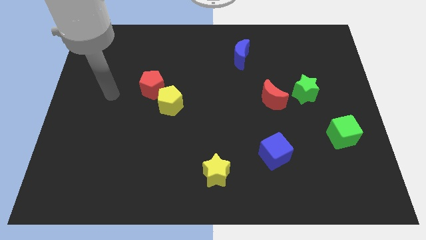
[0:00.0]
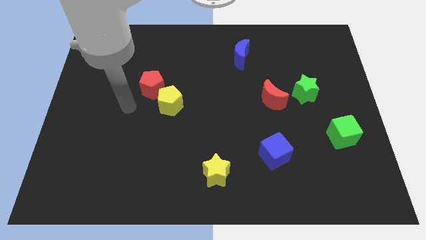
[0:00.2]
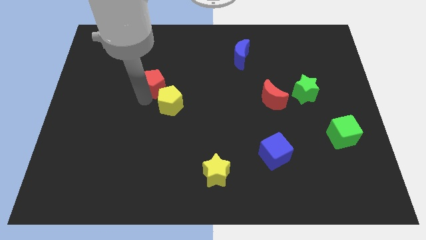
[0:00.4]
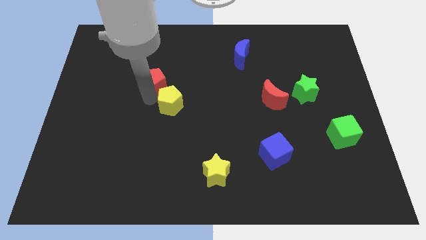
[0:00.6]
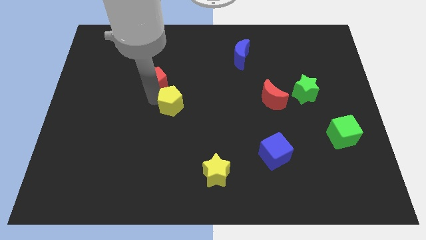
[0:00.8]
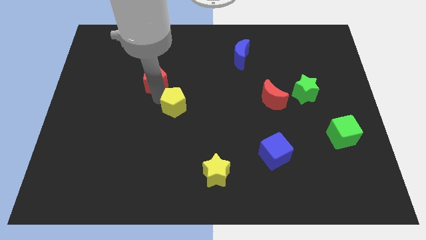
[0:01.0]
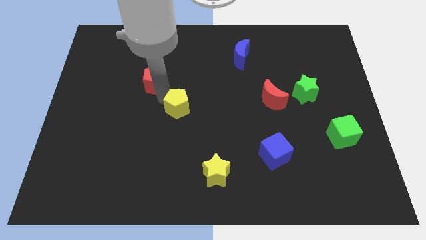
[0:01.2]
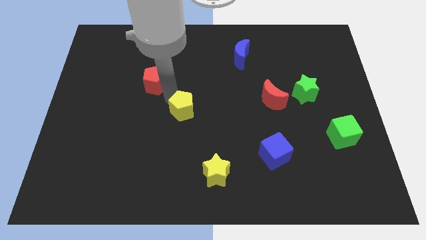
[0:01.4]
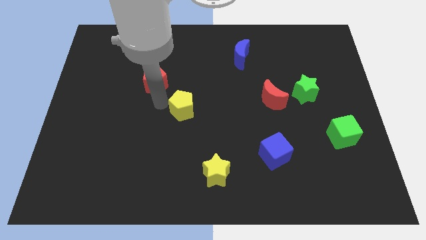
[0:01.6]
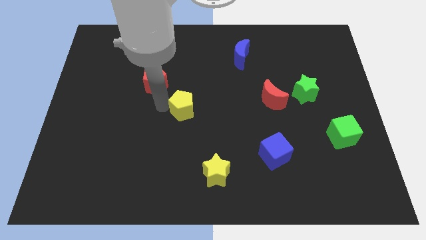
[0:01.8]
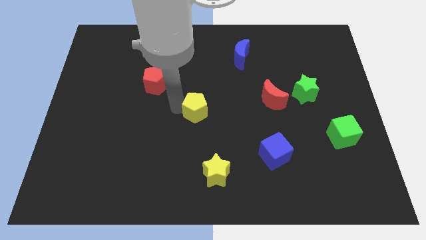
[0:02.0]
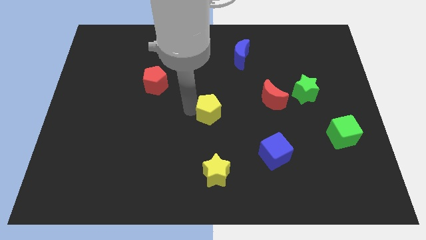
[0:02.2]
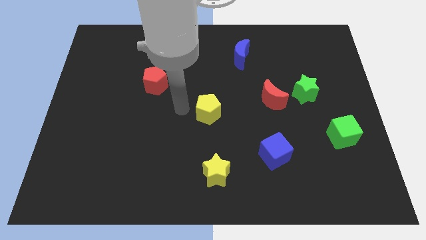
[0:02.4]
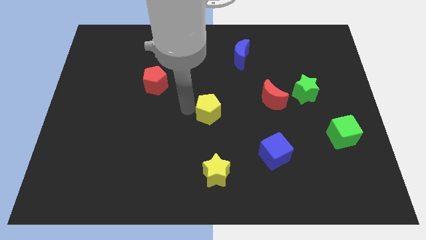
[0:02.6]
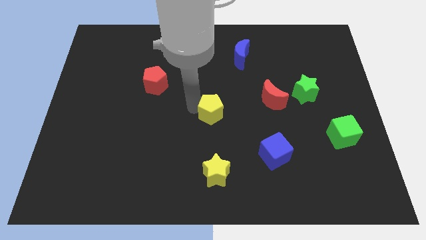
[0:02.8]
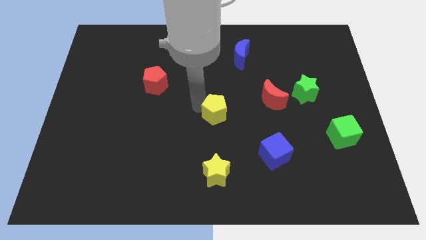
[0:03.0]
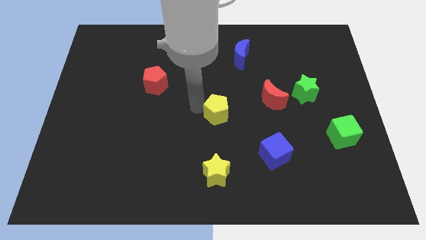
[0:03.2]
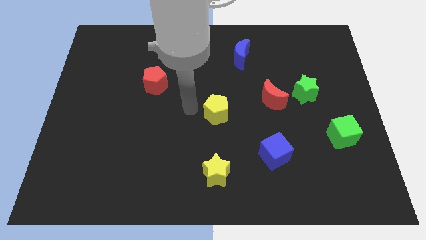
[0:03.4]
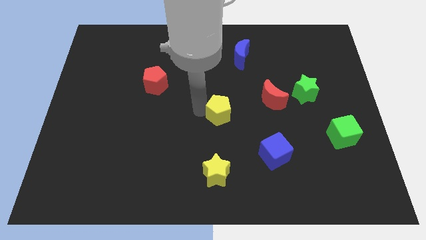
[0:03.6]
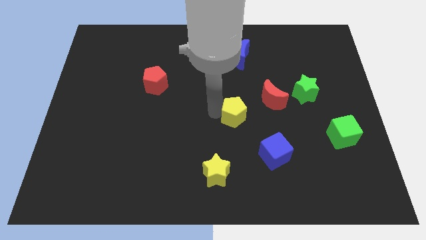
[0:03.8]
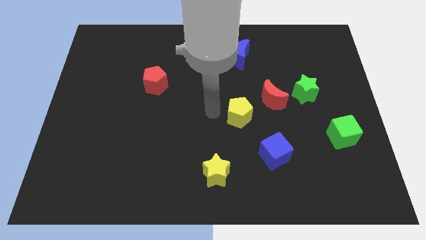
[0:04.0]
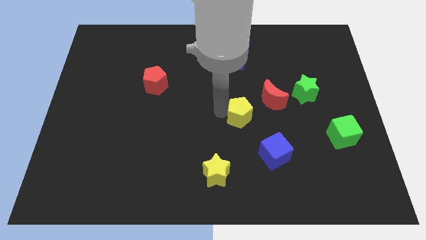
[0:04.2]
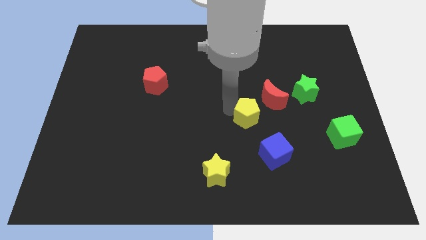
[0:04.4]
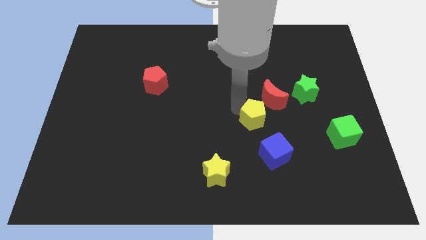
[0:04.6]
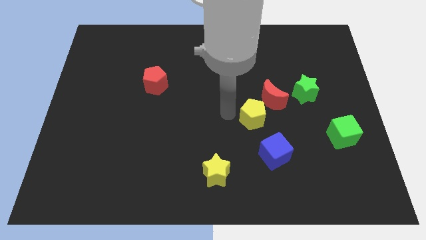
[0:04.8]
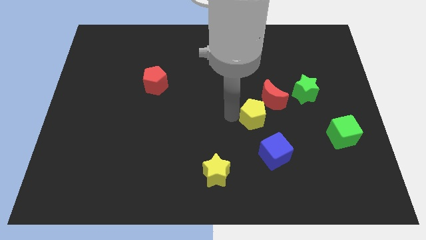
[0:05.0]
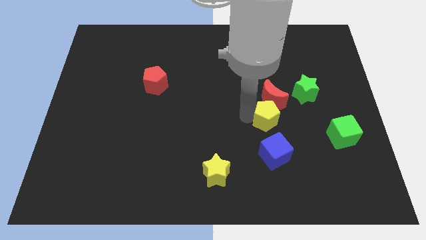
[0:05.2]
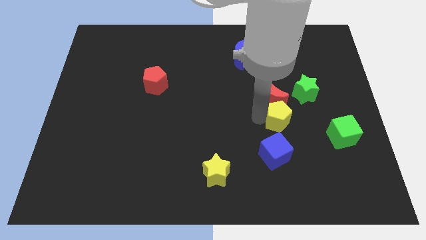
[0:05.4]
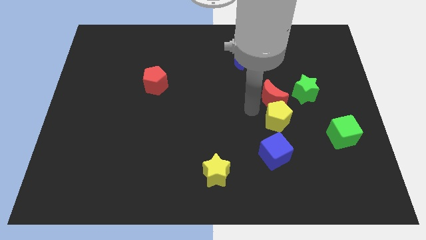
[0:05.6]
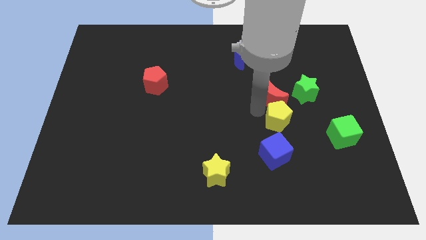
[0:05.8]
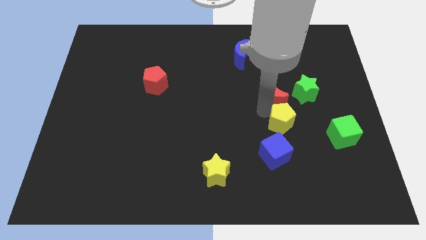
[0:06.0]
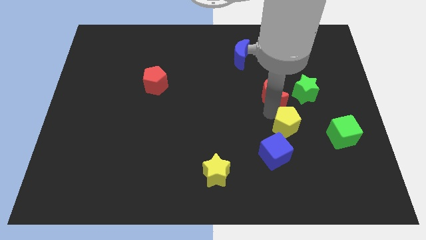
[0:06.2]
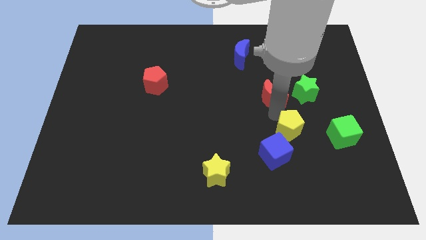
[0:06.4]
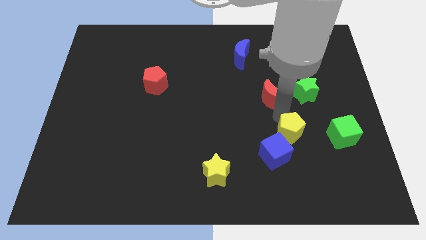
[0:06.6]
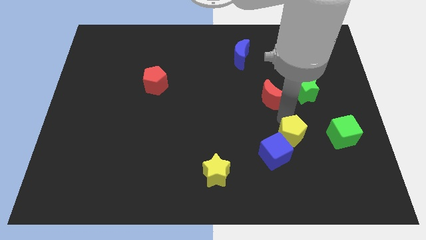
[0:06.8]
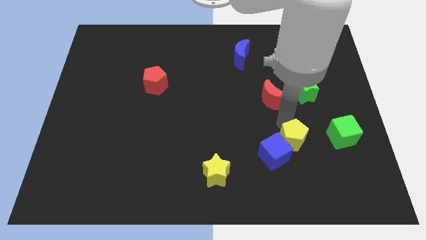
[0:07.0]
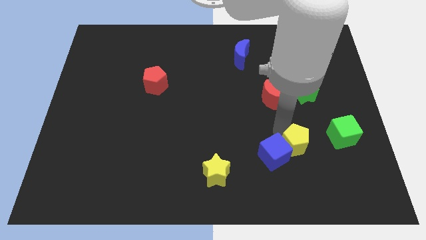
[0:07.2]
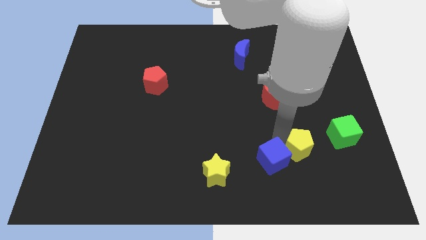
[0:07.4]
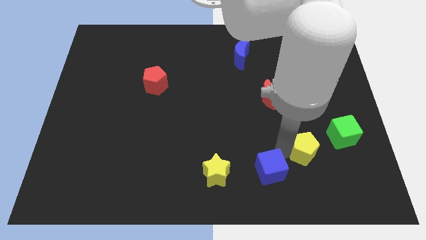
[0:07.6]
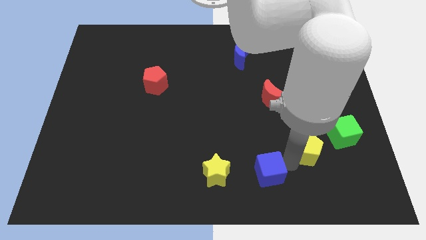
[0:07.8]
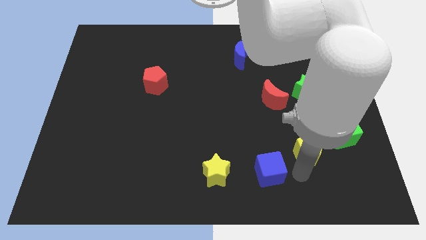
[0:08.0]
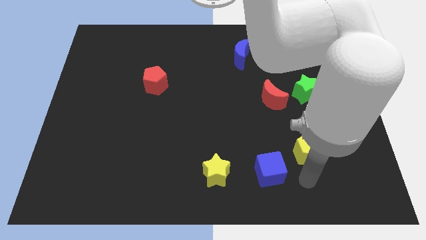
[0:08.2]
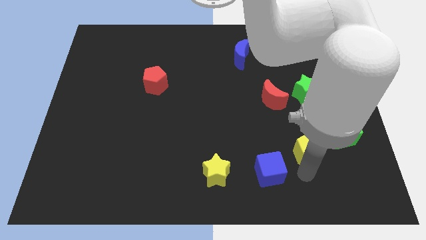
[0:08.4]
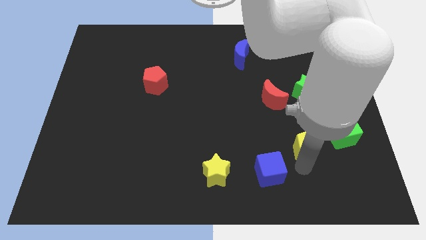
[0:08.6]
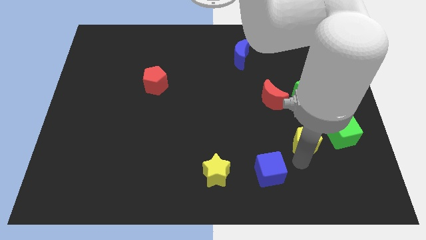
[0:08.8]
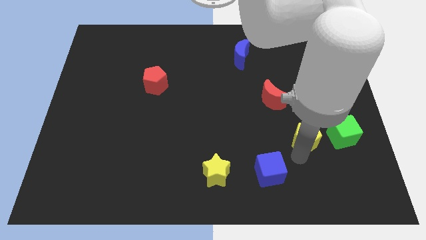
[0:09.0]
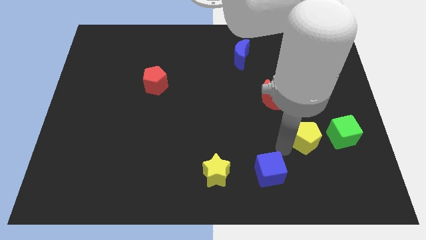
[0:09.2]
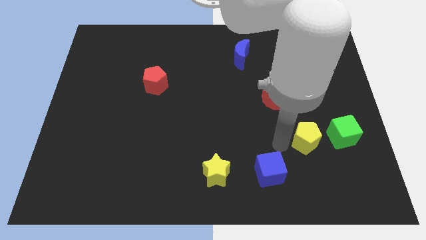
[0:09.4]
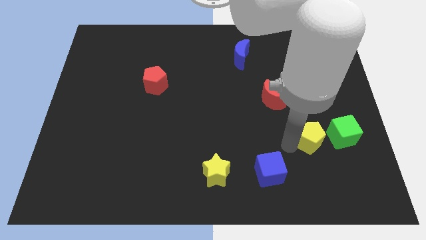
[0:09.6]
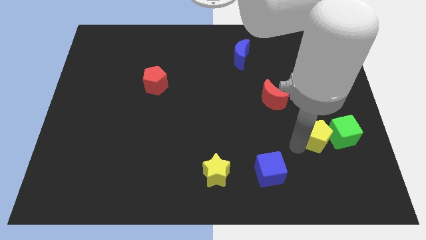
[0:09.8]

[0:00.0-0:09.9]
slide the yellow pentagon to the green cube

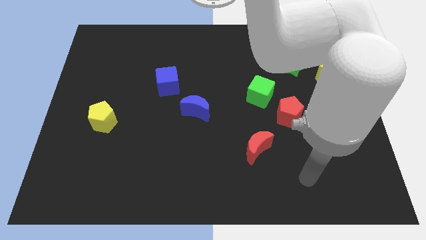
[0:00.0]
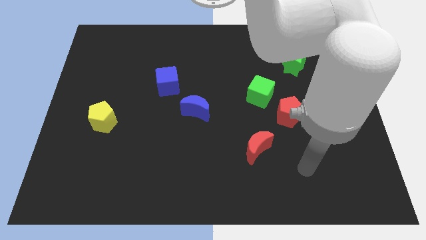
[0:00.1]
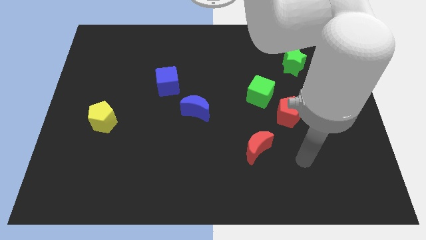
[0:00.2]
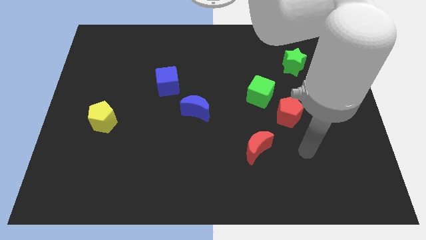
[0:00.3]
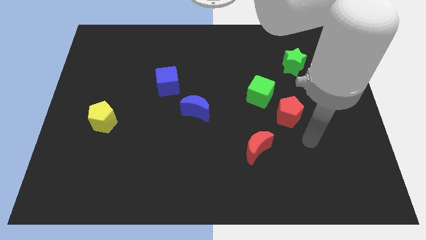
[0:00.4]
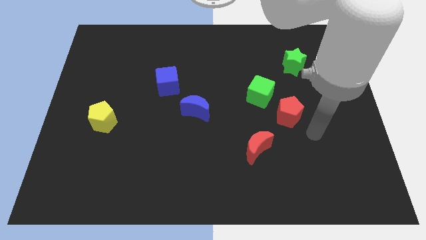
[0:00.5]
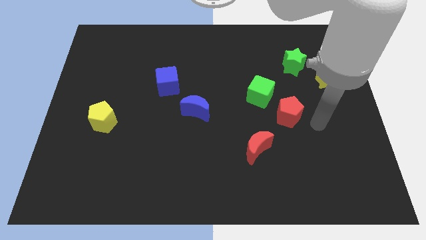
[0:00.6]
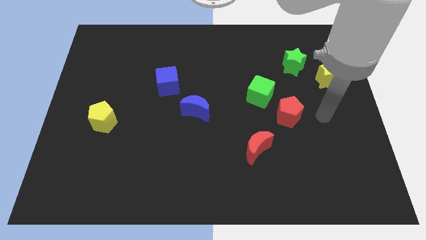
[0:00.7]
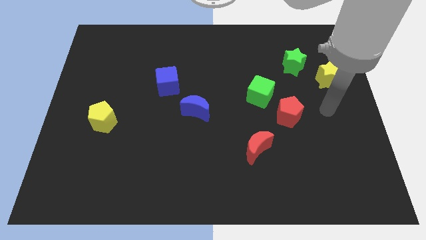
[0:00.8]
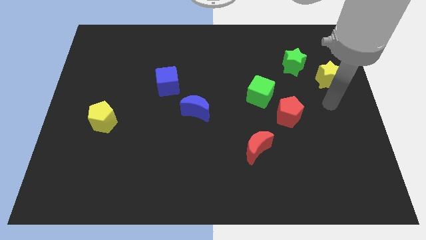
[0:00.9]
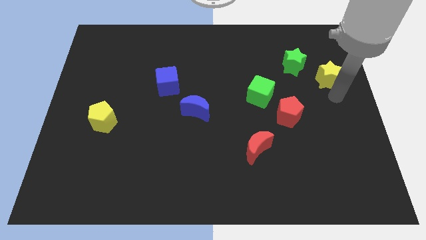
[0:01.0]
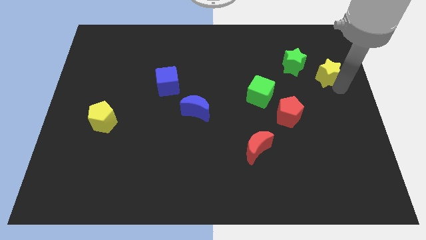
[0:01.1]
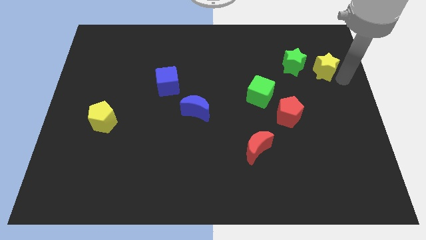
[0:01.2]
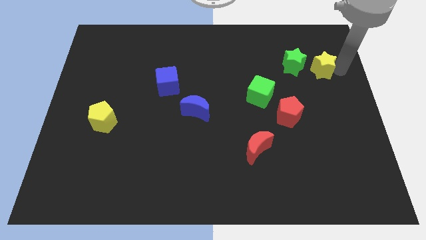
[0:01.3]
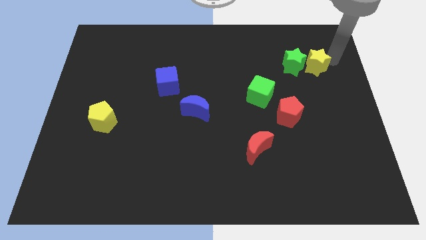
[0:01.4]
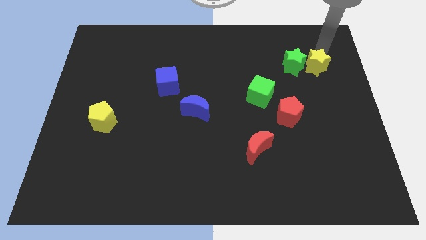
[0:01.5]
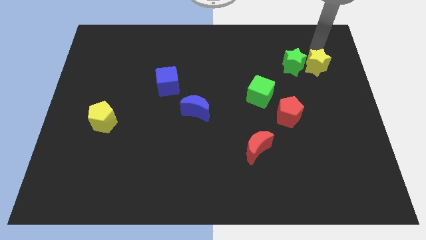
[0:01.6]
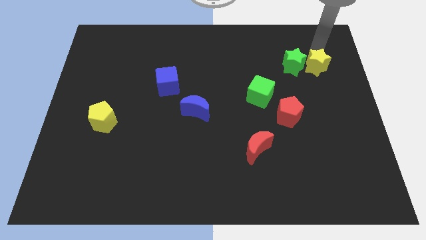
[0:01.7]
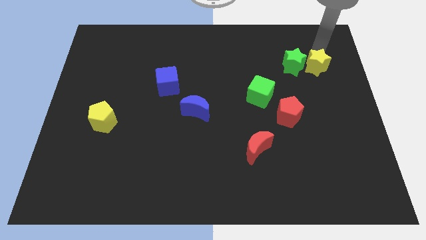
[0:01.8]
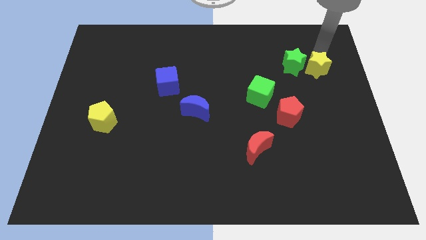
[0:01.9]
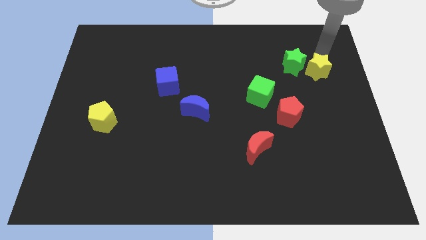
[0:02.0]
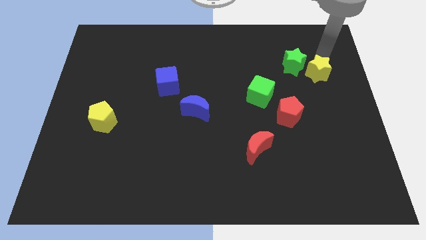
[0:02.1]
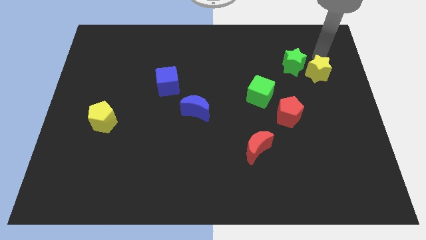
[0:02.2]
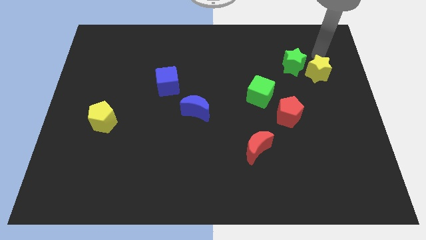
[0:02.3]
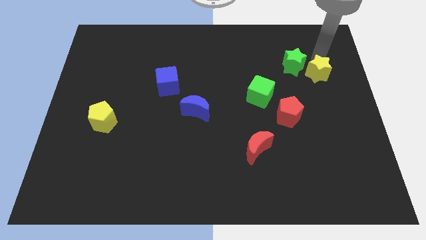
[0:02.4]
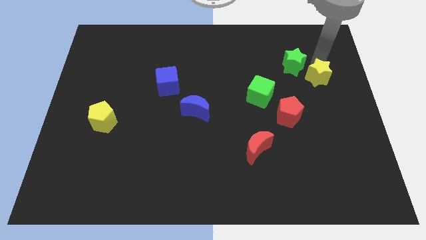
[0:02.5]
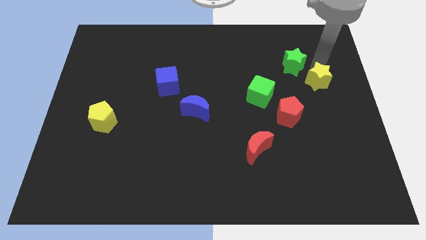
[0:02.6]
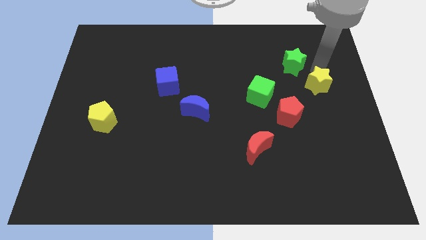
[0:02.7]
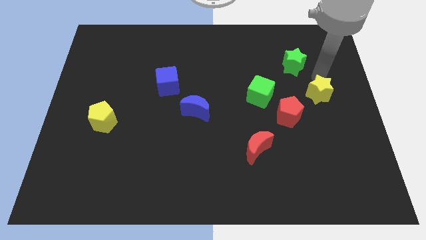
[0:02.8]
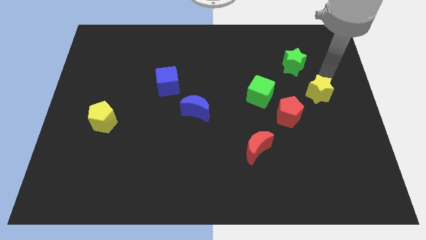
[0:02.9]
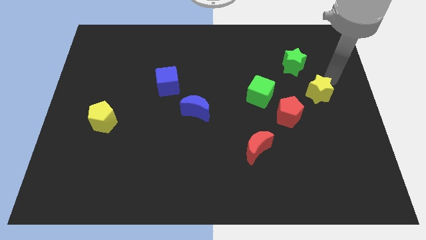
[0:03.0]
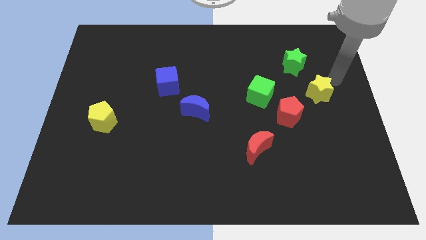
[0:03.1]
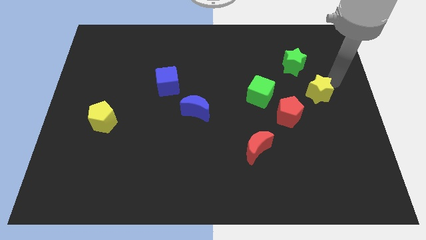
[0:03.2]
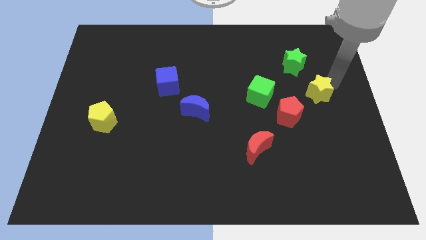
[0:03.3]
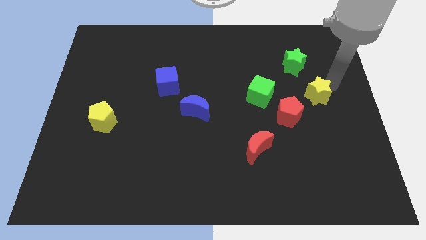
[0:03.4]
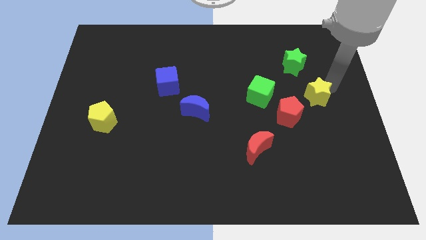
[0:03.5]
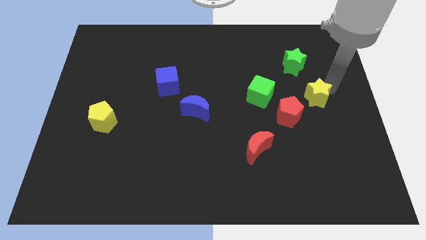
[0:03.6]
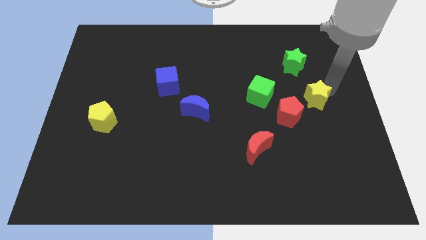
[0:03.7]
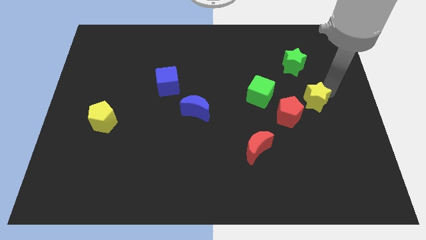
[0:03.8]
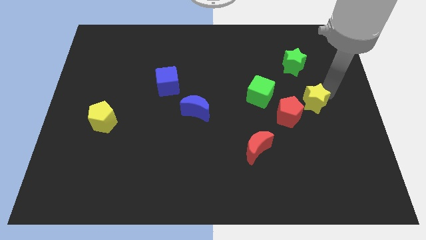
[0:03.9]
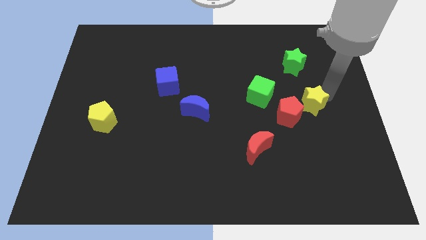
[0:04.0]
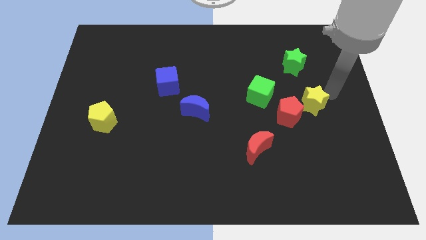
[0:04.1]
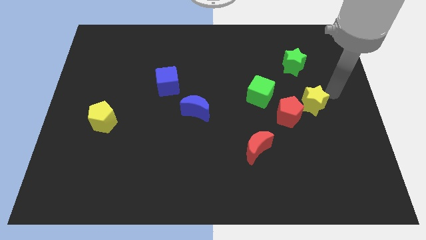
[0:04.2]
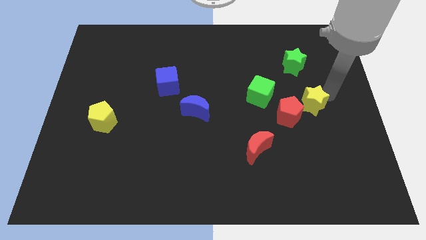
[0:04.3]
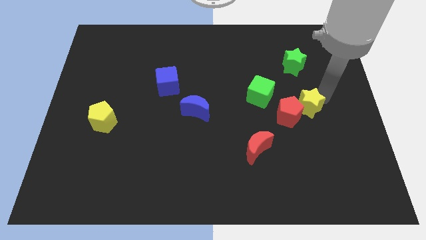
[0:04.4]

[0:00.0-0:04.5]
slide the yellow star next to the red pentagon
